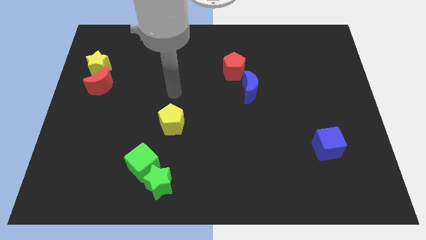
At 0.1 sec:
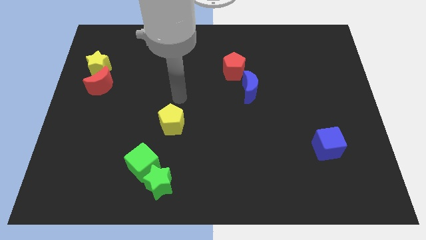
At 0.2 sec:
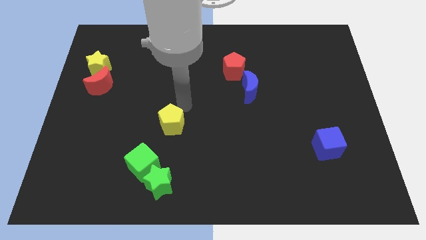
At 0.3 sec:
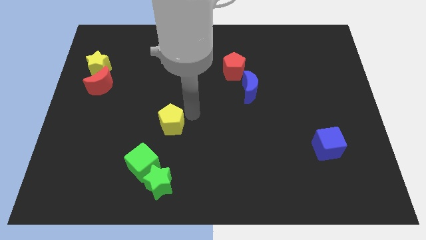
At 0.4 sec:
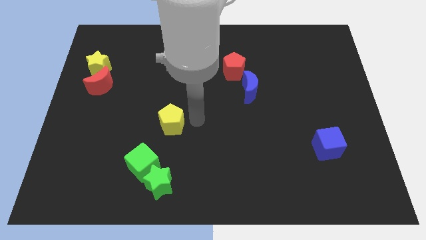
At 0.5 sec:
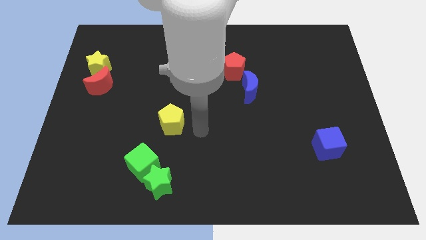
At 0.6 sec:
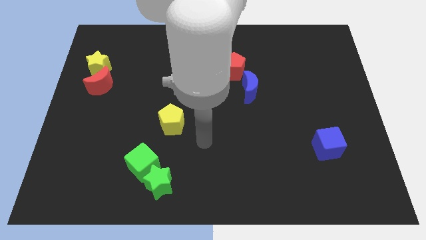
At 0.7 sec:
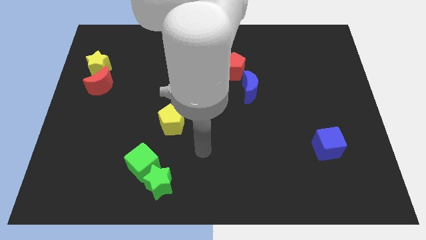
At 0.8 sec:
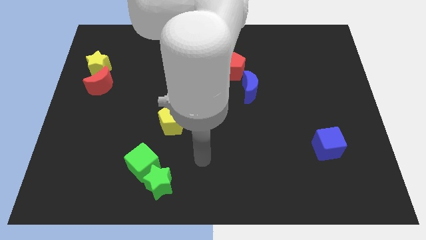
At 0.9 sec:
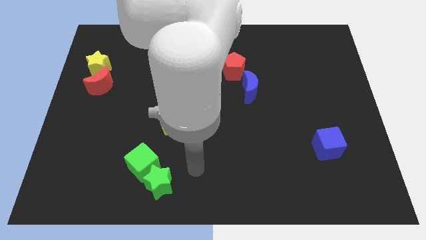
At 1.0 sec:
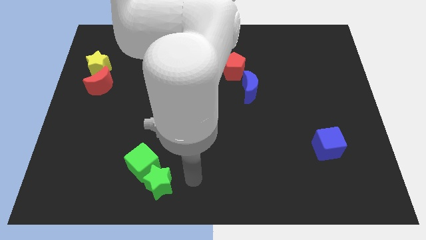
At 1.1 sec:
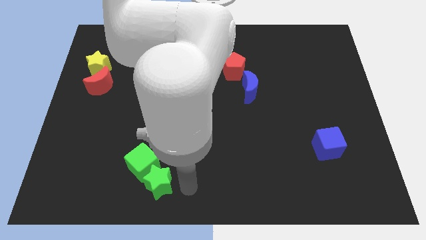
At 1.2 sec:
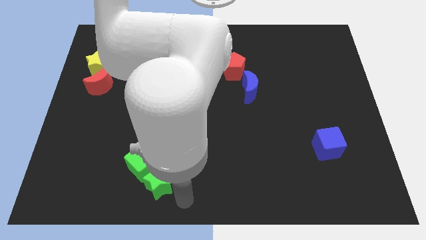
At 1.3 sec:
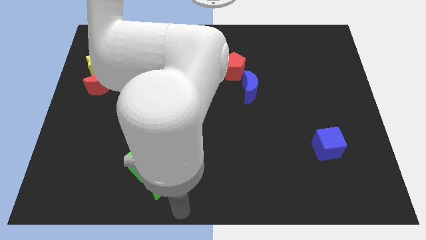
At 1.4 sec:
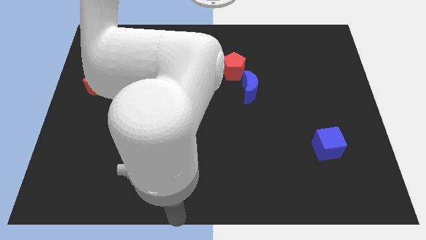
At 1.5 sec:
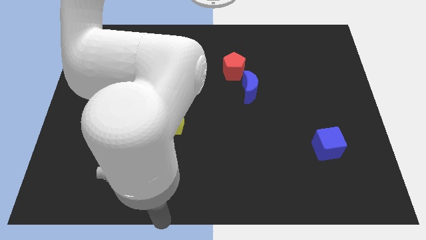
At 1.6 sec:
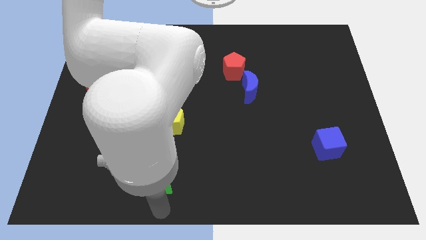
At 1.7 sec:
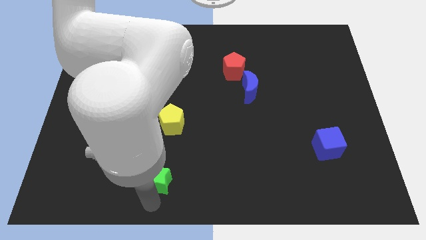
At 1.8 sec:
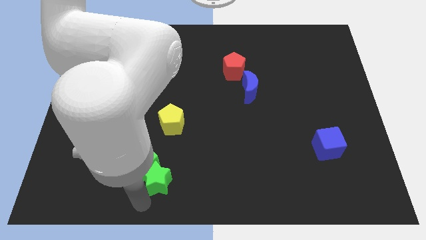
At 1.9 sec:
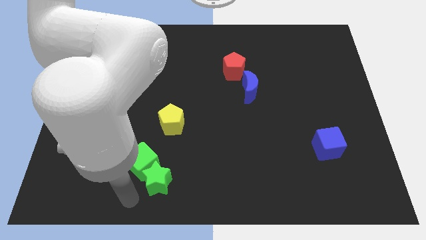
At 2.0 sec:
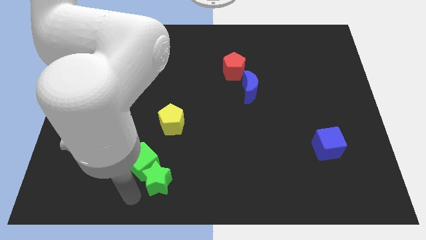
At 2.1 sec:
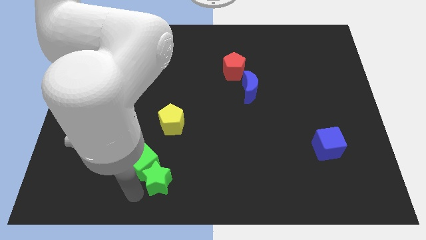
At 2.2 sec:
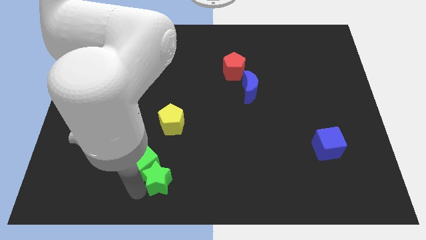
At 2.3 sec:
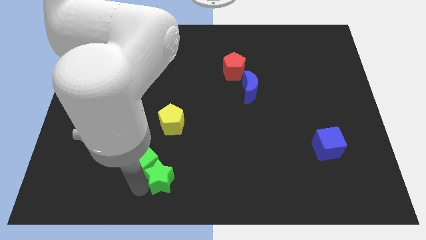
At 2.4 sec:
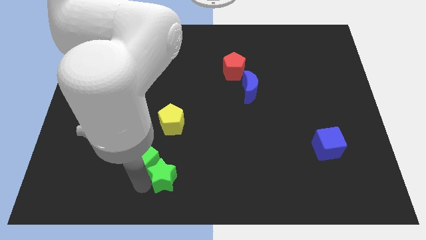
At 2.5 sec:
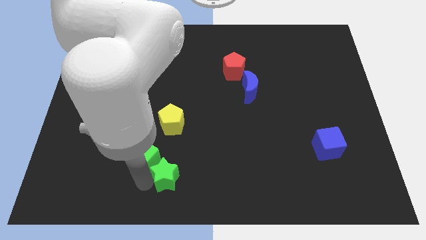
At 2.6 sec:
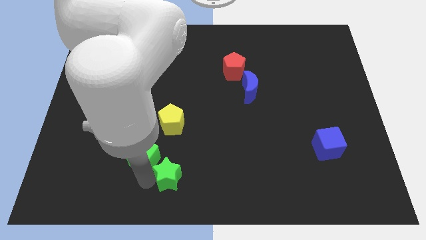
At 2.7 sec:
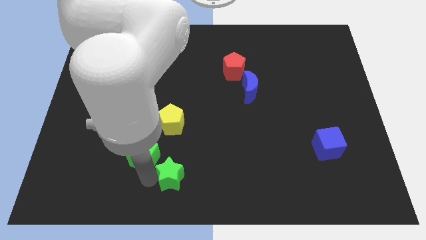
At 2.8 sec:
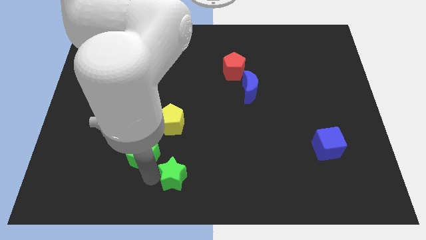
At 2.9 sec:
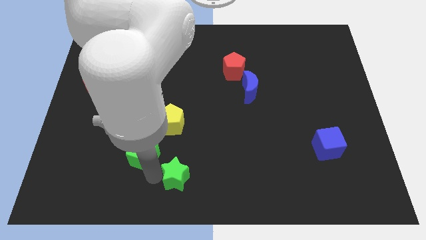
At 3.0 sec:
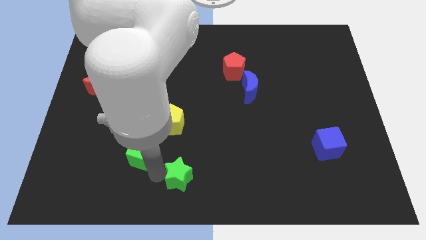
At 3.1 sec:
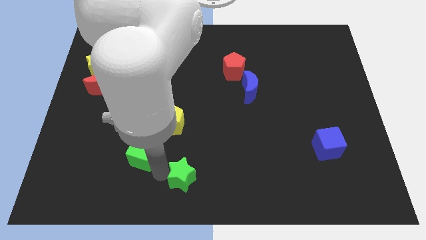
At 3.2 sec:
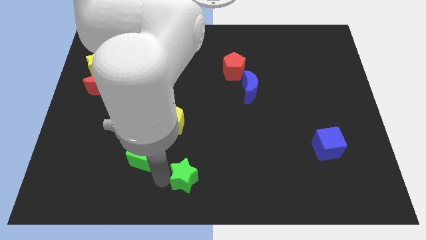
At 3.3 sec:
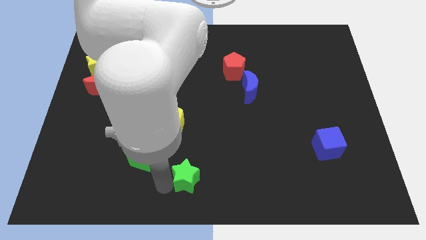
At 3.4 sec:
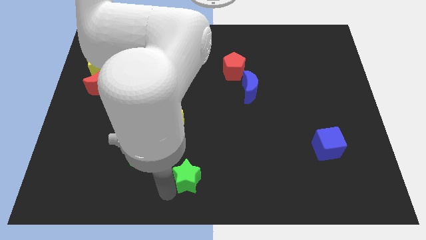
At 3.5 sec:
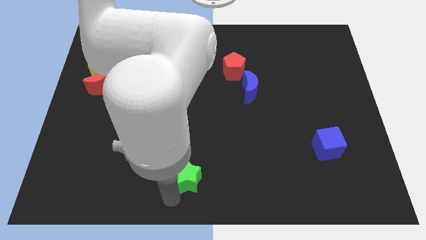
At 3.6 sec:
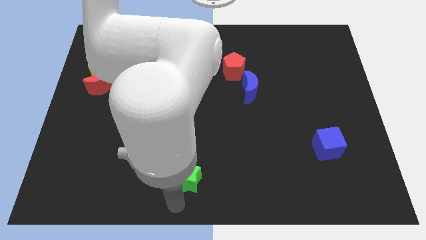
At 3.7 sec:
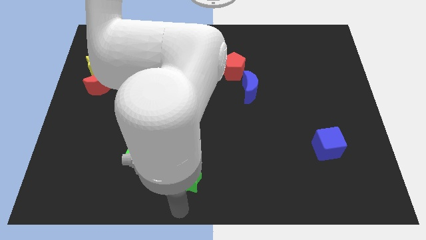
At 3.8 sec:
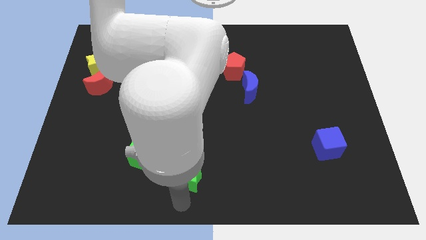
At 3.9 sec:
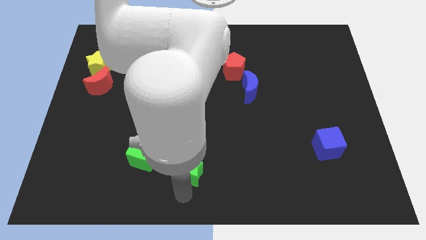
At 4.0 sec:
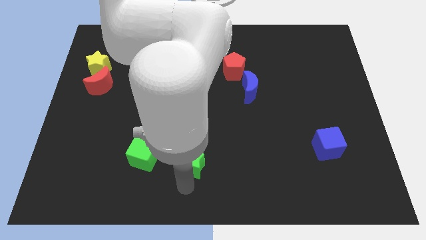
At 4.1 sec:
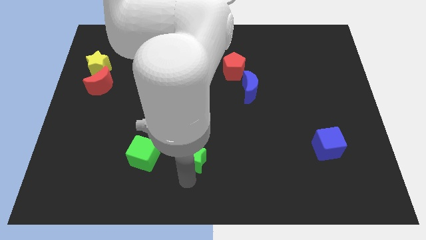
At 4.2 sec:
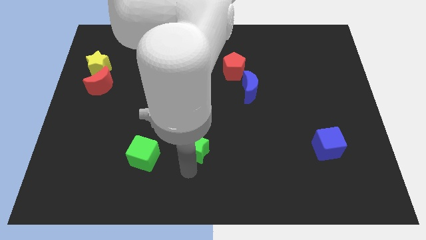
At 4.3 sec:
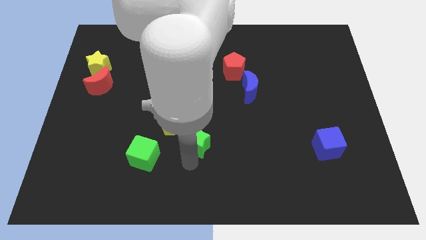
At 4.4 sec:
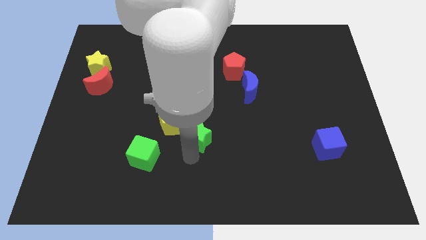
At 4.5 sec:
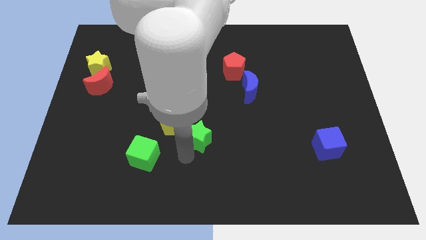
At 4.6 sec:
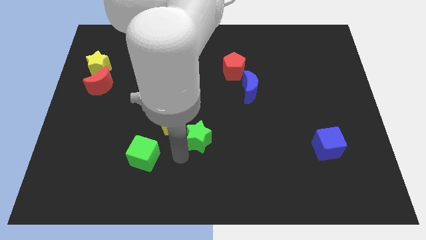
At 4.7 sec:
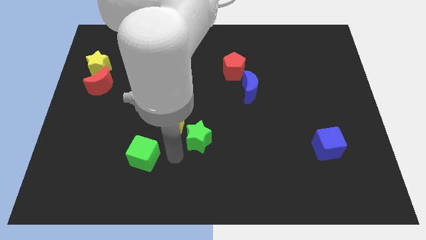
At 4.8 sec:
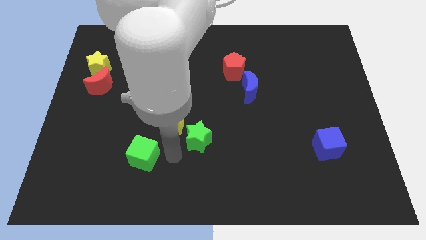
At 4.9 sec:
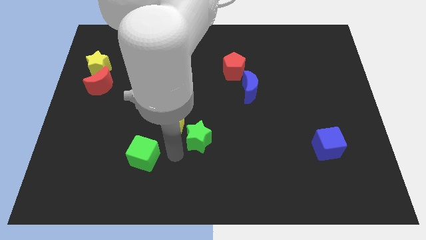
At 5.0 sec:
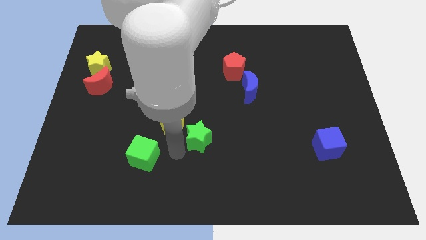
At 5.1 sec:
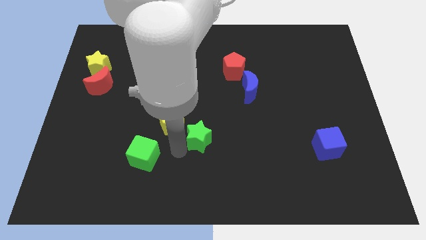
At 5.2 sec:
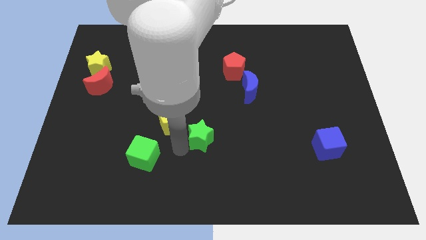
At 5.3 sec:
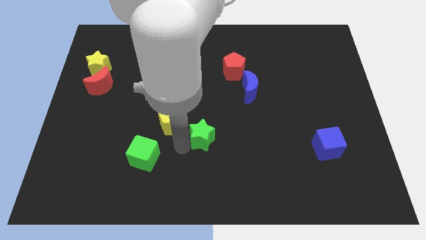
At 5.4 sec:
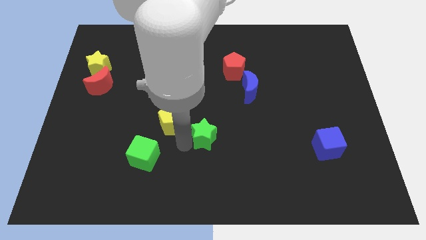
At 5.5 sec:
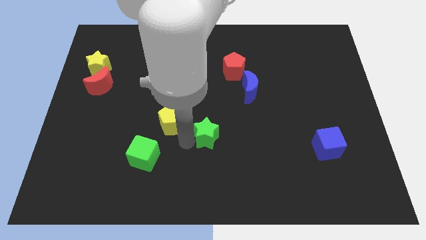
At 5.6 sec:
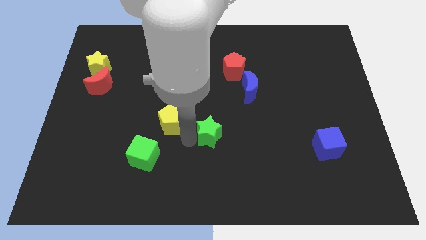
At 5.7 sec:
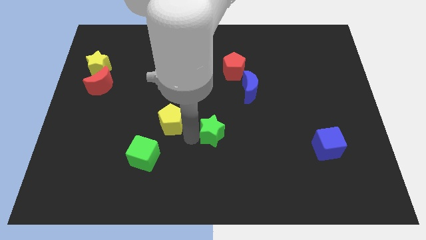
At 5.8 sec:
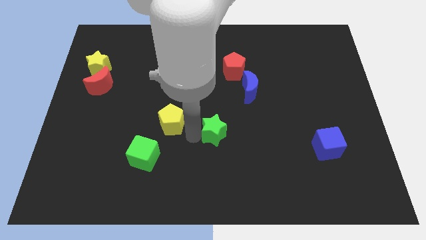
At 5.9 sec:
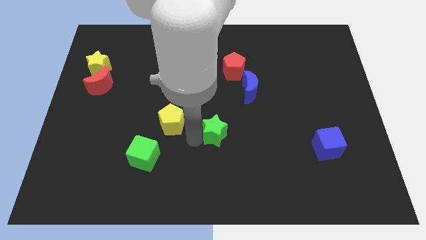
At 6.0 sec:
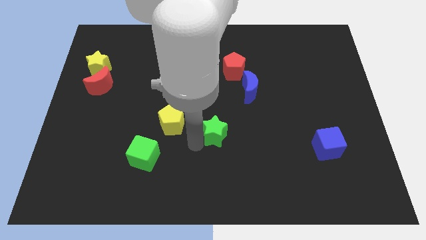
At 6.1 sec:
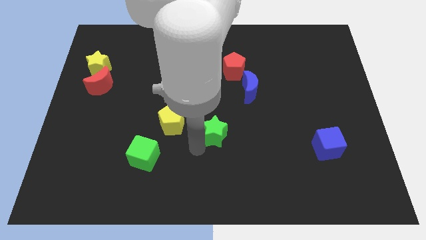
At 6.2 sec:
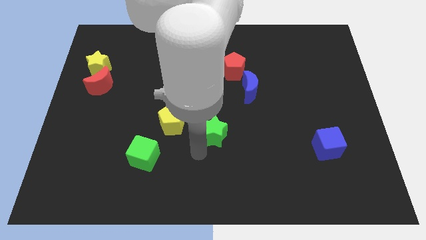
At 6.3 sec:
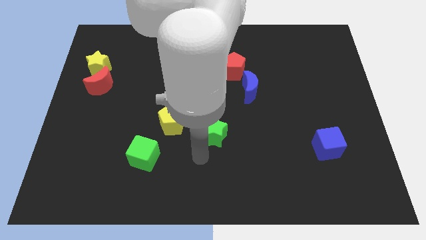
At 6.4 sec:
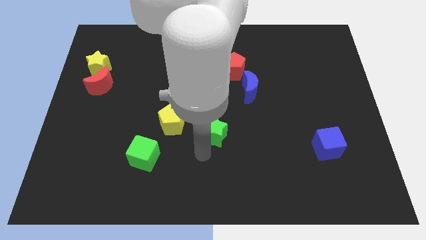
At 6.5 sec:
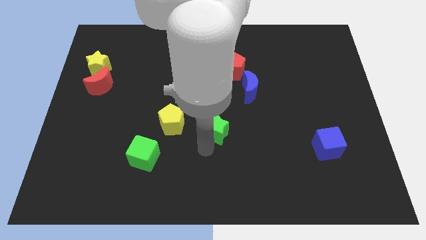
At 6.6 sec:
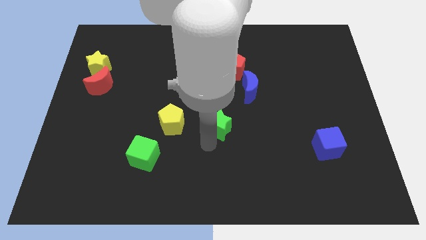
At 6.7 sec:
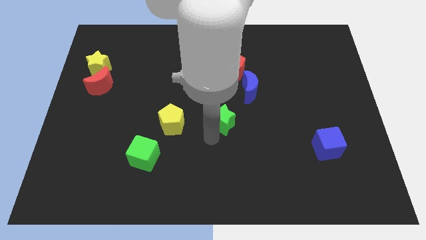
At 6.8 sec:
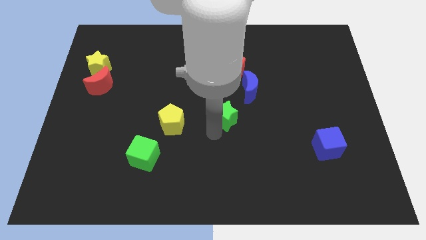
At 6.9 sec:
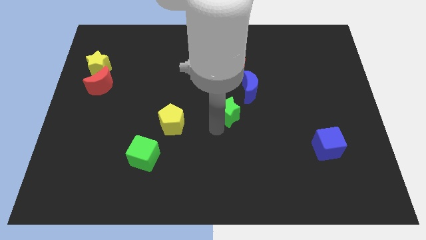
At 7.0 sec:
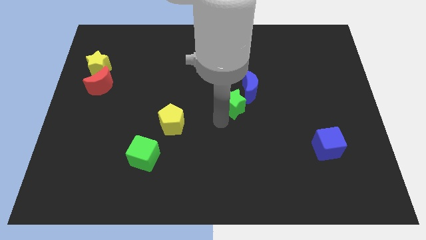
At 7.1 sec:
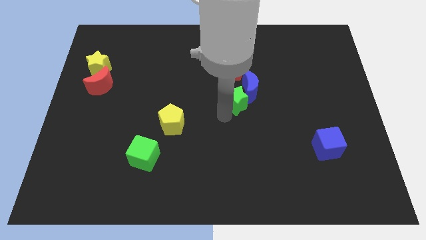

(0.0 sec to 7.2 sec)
move the green star to the blue moon
